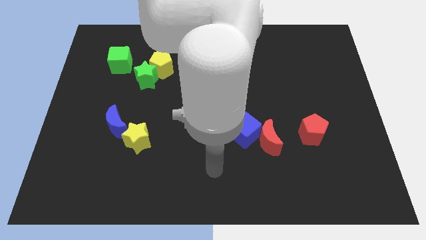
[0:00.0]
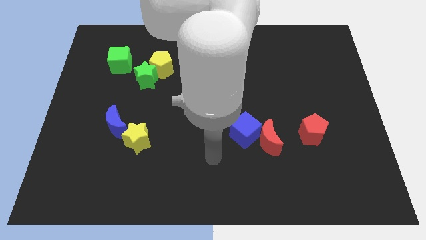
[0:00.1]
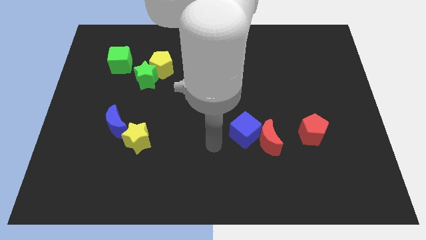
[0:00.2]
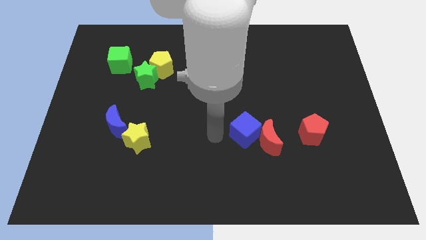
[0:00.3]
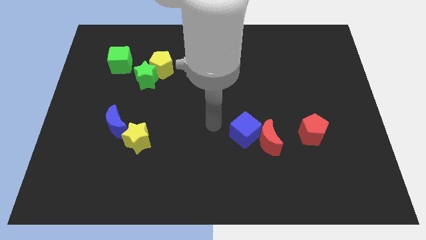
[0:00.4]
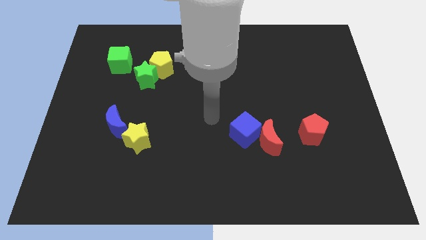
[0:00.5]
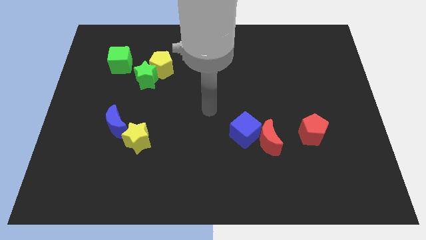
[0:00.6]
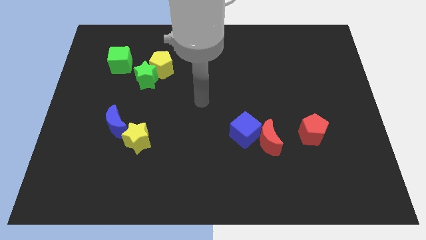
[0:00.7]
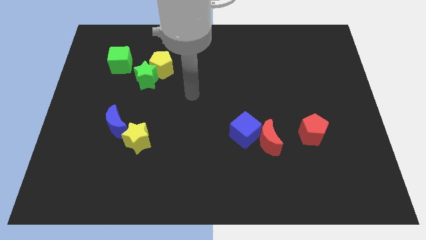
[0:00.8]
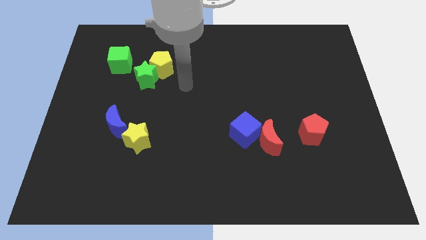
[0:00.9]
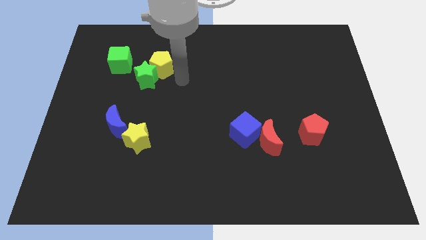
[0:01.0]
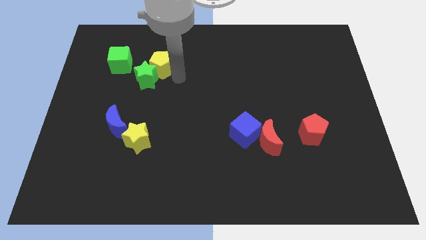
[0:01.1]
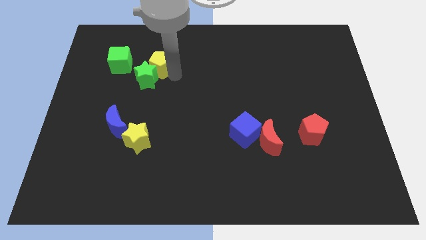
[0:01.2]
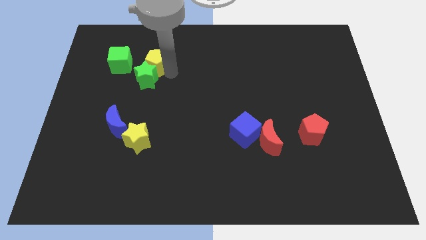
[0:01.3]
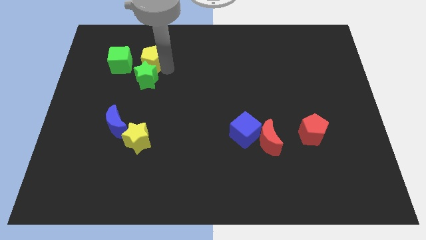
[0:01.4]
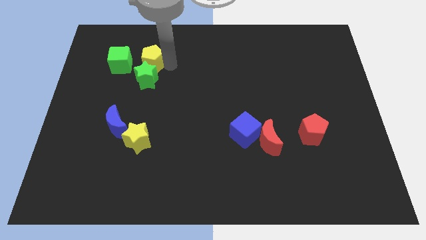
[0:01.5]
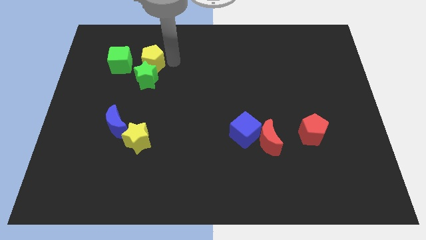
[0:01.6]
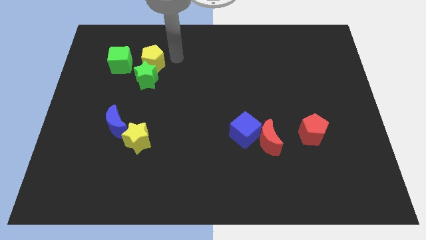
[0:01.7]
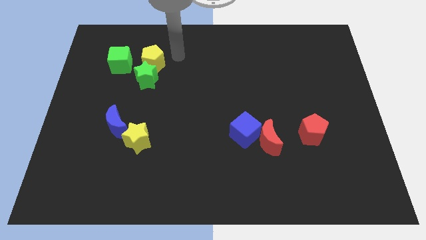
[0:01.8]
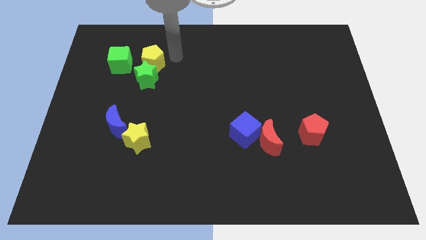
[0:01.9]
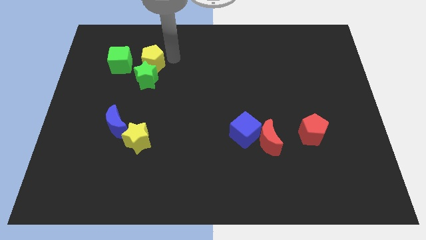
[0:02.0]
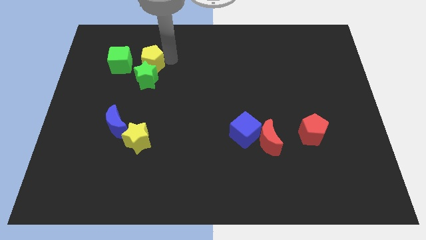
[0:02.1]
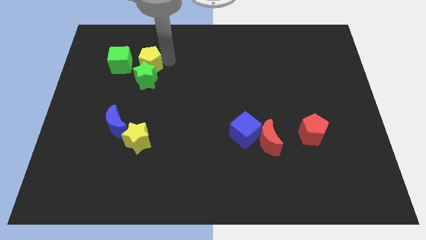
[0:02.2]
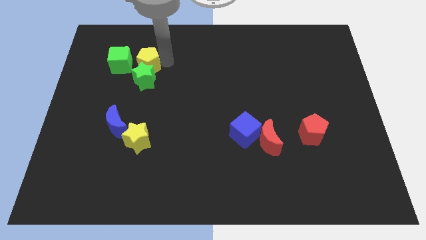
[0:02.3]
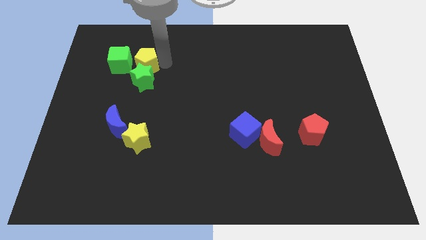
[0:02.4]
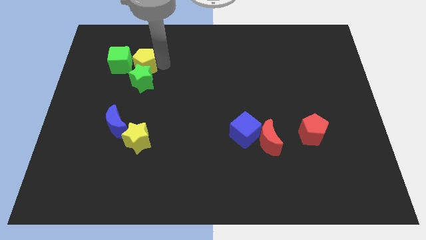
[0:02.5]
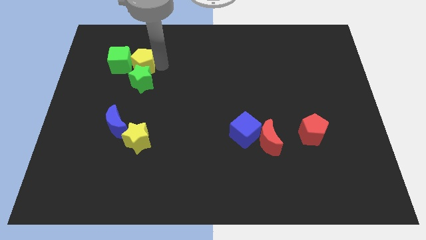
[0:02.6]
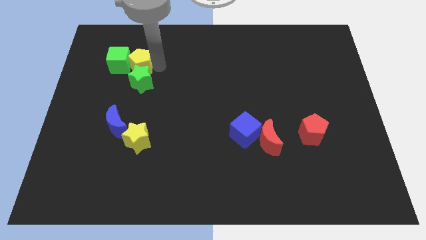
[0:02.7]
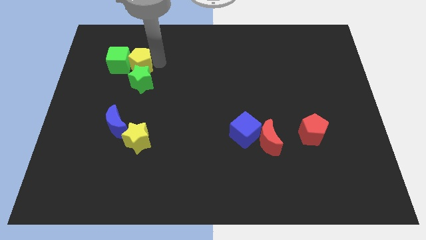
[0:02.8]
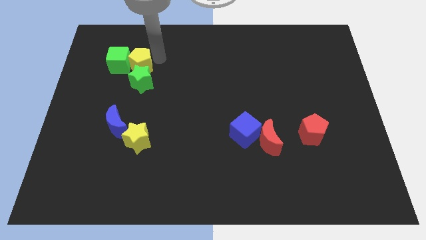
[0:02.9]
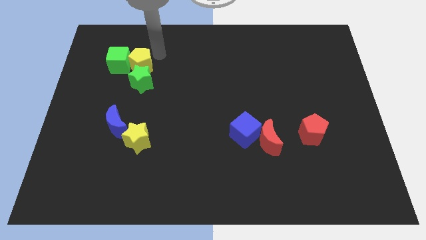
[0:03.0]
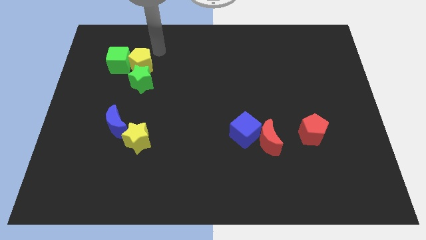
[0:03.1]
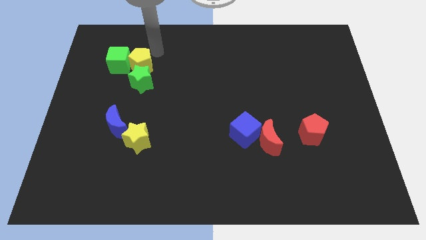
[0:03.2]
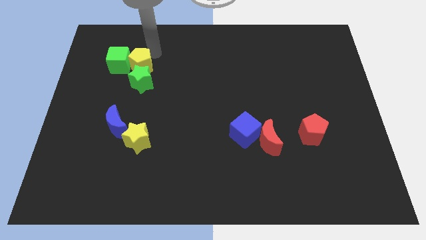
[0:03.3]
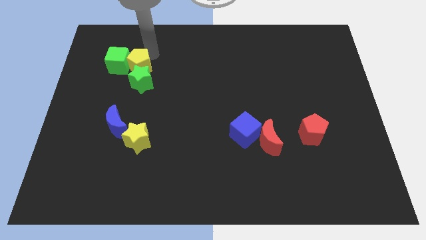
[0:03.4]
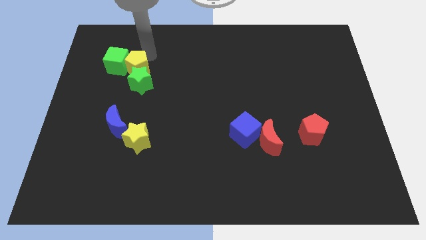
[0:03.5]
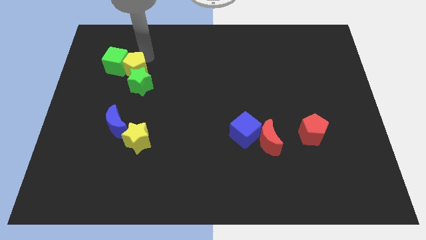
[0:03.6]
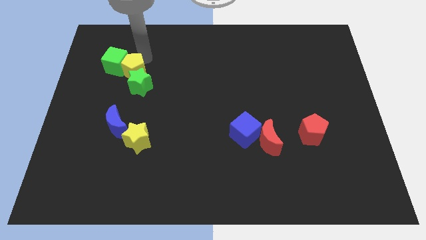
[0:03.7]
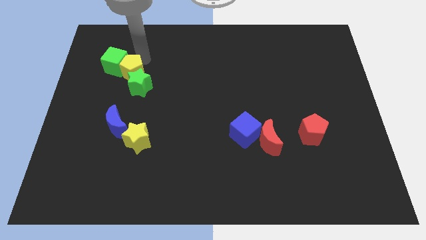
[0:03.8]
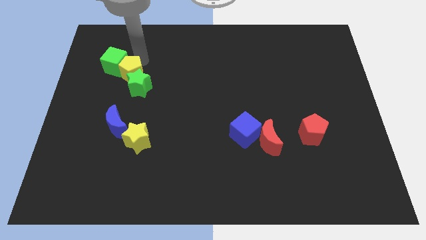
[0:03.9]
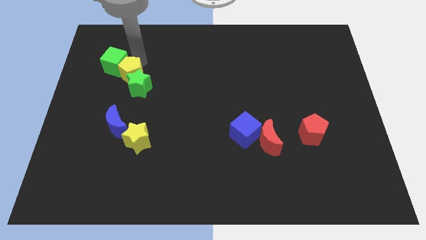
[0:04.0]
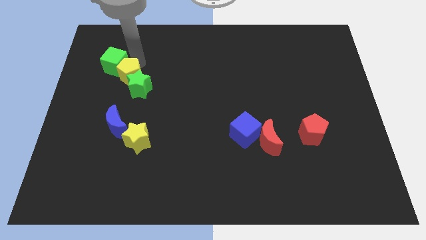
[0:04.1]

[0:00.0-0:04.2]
push the yellow pentagon diagonally down and to the left a bit

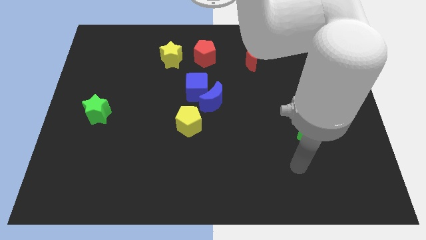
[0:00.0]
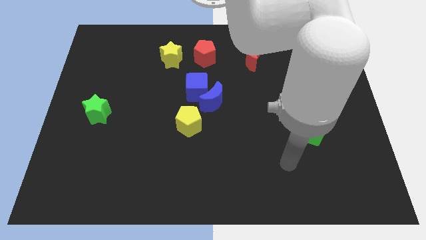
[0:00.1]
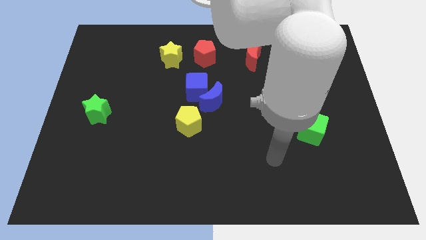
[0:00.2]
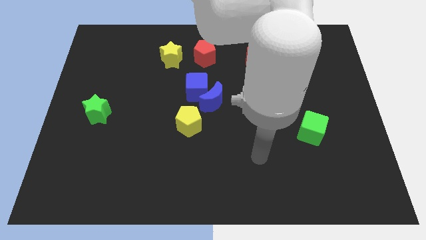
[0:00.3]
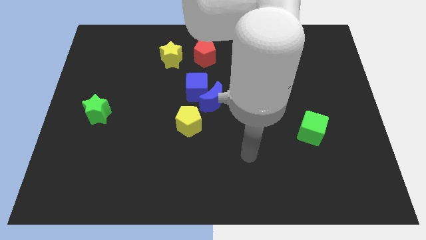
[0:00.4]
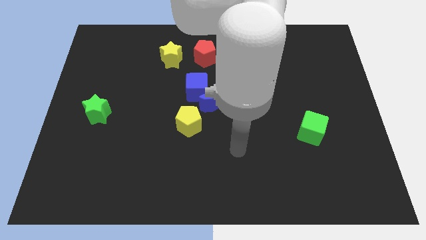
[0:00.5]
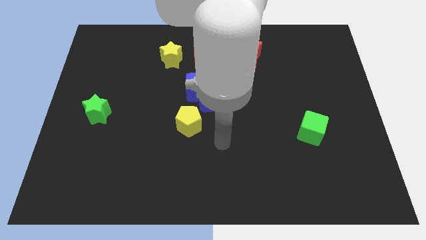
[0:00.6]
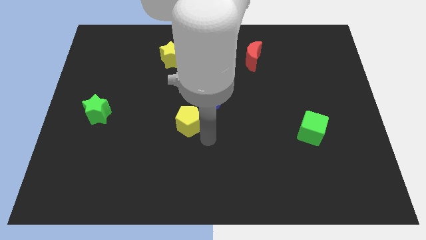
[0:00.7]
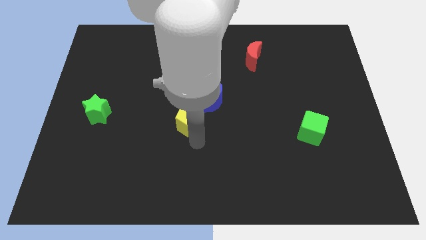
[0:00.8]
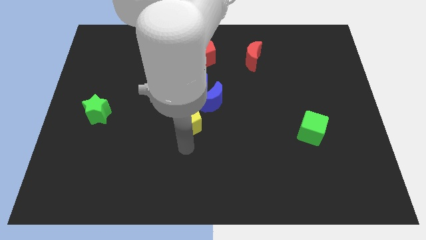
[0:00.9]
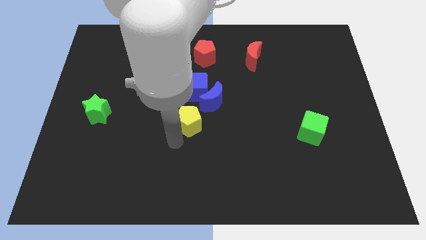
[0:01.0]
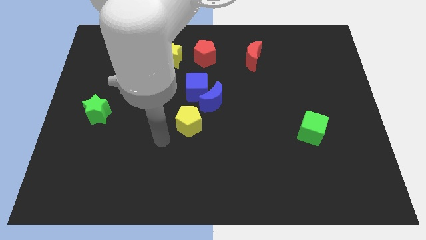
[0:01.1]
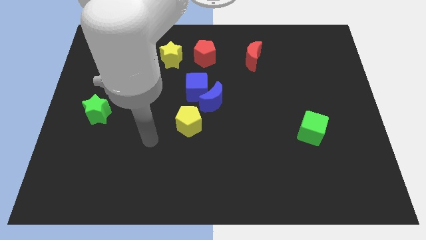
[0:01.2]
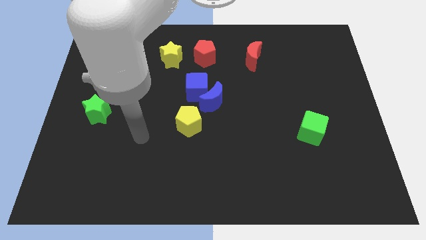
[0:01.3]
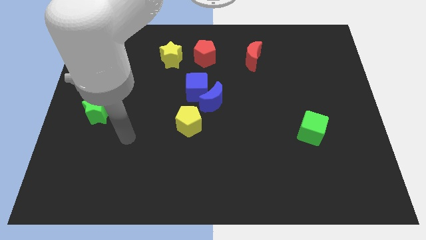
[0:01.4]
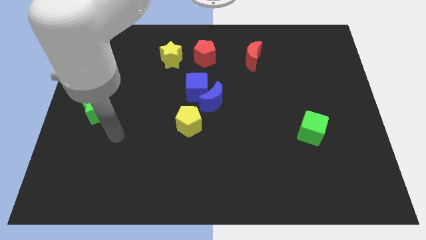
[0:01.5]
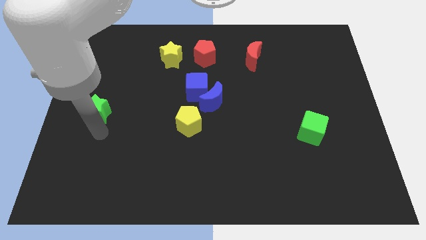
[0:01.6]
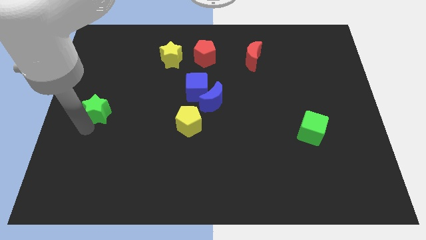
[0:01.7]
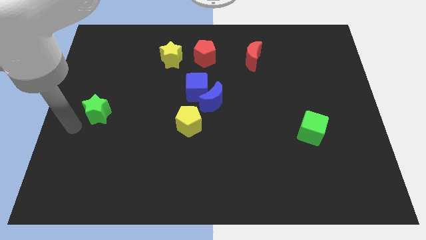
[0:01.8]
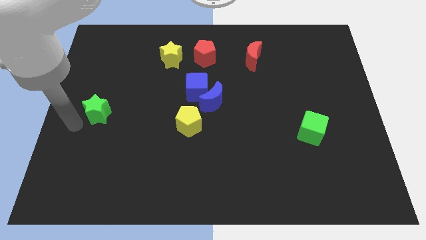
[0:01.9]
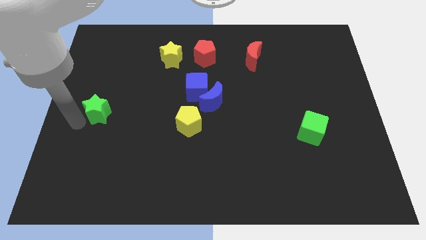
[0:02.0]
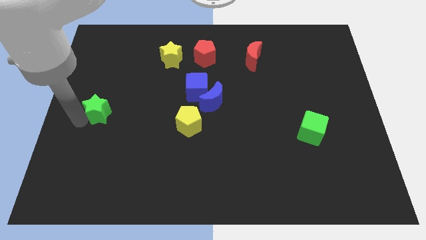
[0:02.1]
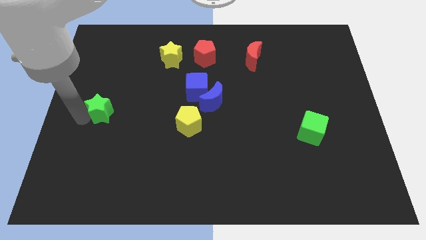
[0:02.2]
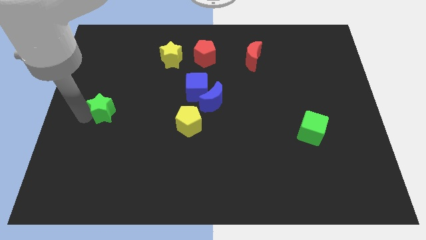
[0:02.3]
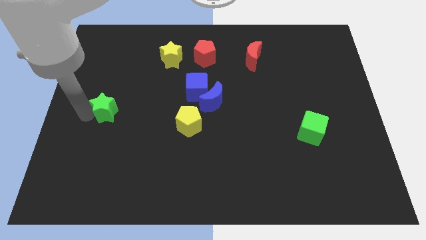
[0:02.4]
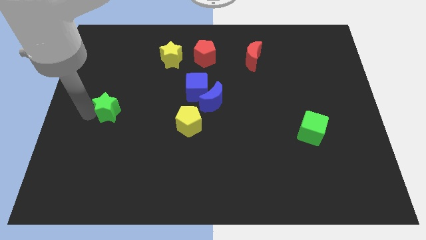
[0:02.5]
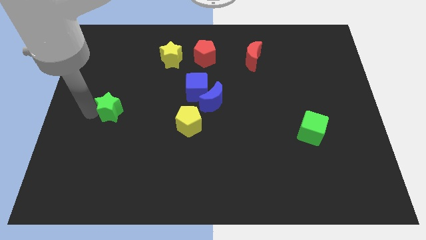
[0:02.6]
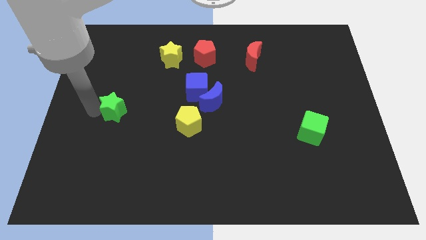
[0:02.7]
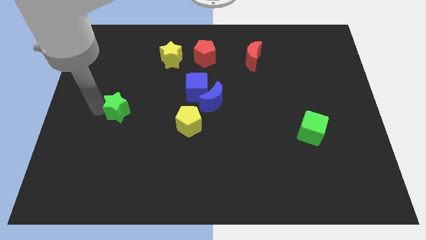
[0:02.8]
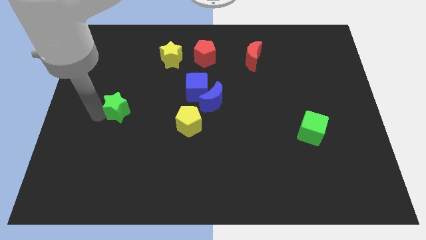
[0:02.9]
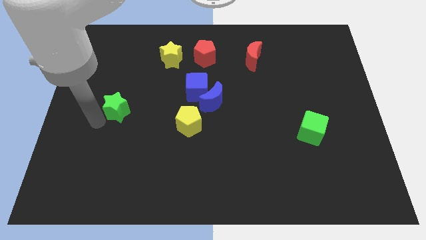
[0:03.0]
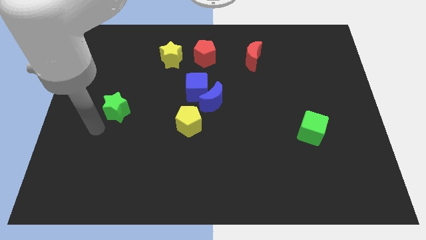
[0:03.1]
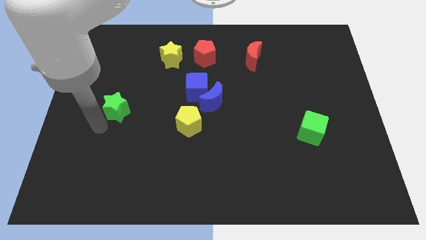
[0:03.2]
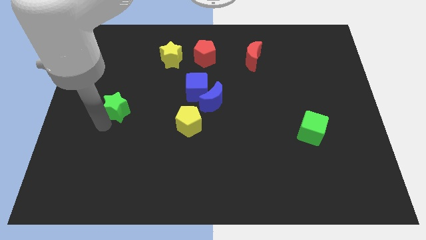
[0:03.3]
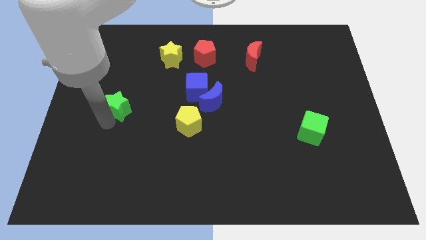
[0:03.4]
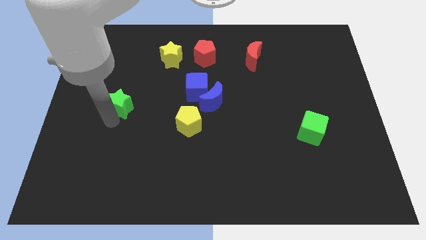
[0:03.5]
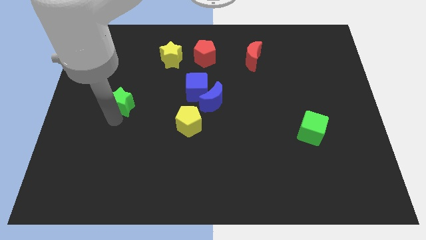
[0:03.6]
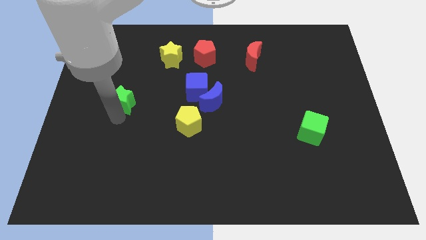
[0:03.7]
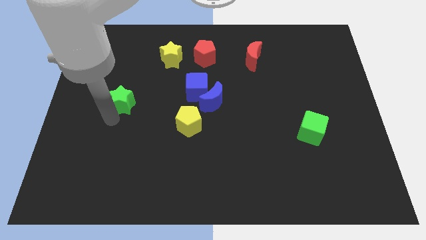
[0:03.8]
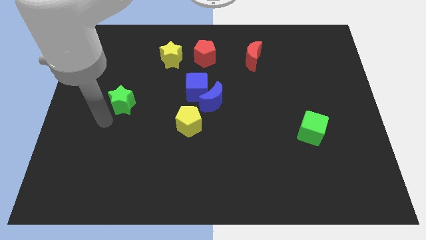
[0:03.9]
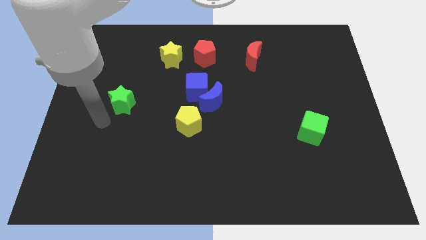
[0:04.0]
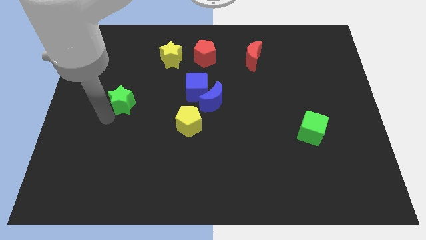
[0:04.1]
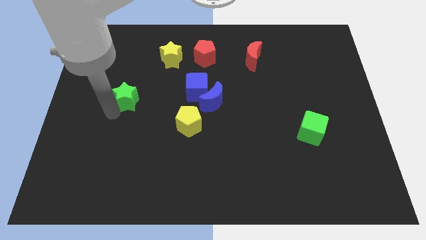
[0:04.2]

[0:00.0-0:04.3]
slide the green star slightly upwards and then to the right
